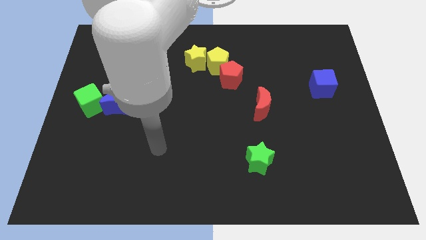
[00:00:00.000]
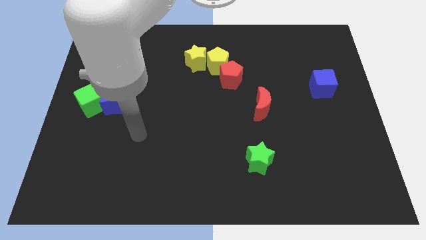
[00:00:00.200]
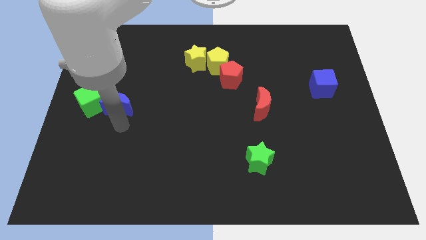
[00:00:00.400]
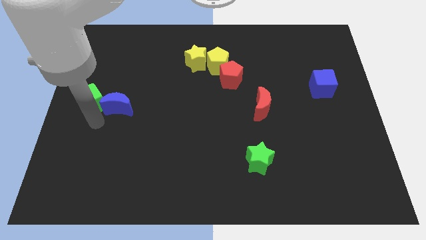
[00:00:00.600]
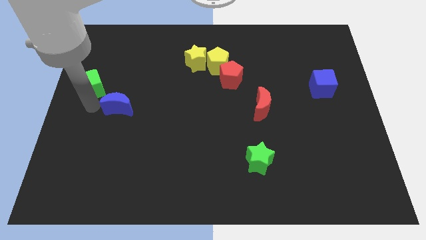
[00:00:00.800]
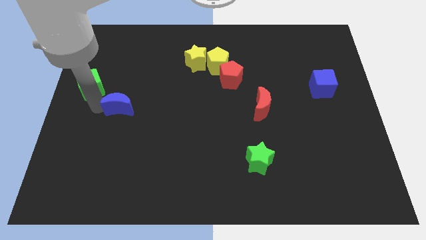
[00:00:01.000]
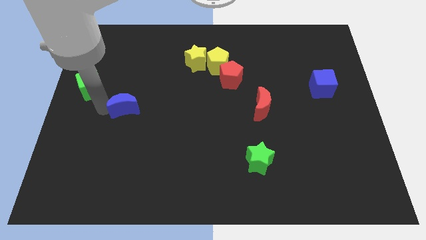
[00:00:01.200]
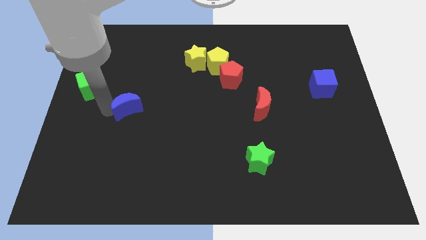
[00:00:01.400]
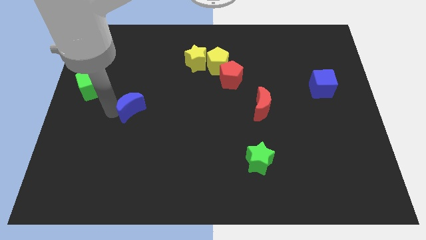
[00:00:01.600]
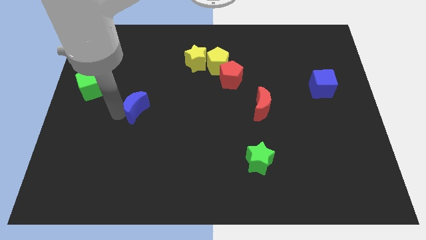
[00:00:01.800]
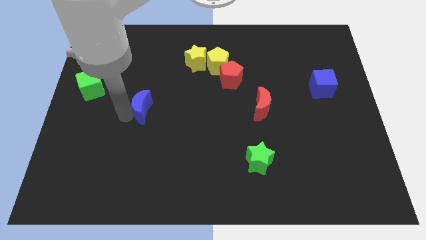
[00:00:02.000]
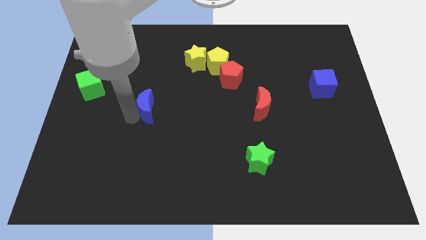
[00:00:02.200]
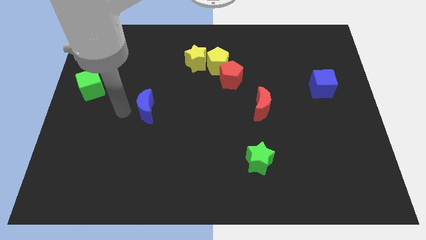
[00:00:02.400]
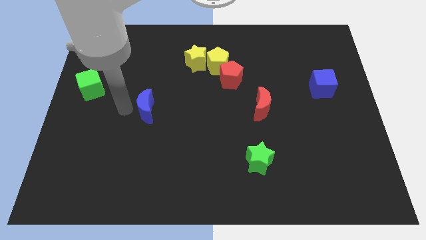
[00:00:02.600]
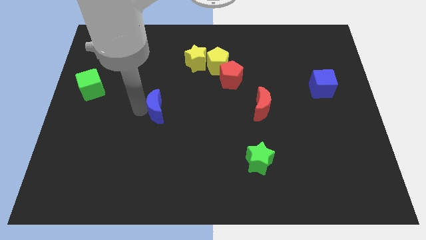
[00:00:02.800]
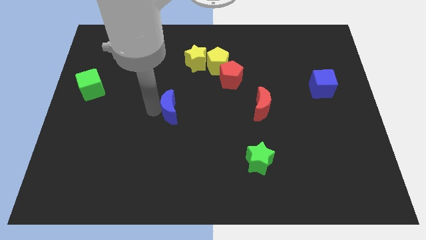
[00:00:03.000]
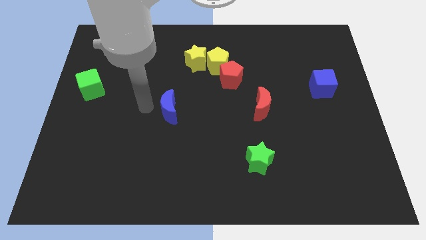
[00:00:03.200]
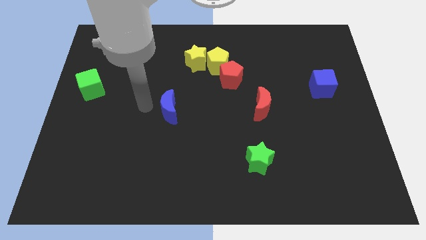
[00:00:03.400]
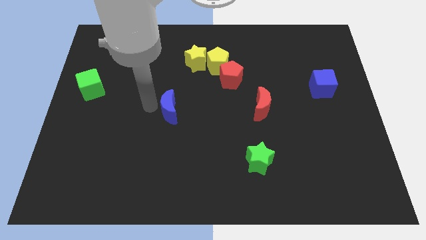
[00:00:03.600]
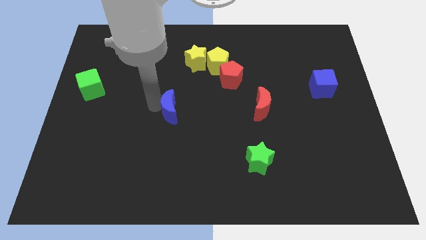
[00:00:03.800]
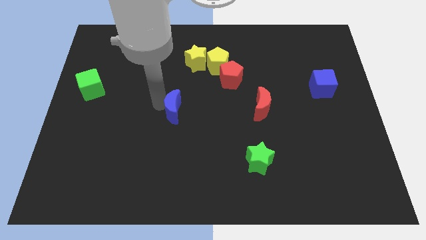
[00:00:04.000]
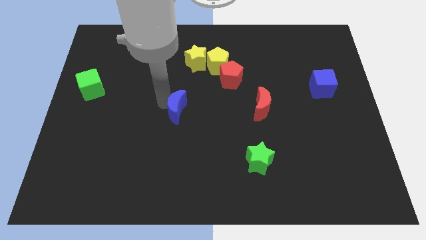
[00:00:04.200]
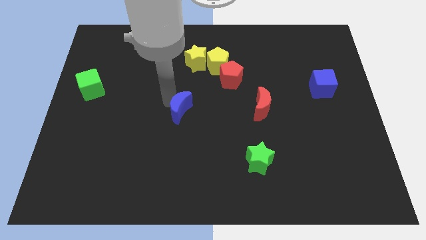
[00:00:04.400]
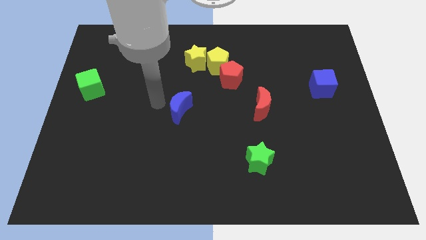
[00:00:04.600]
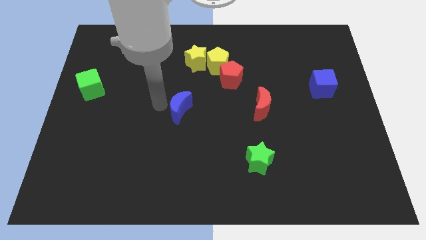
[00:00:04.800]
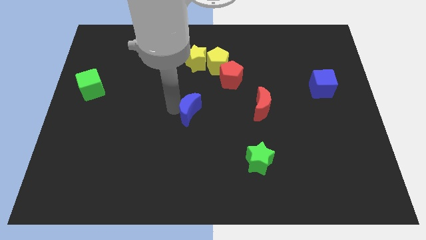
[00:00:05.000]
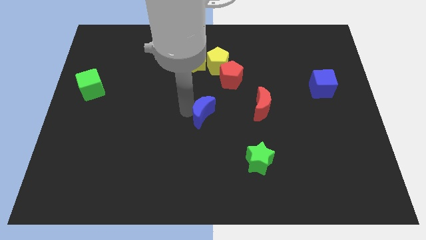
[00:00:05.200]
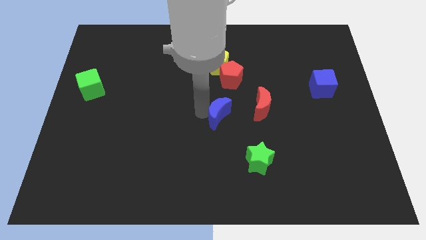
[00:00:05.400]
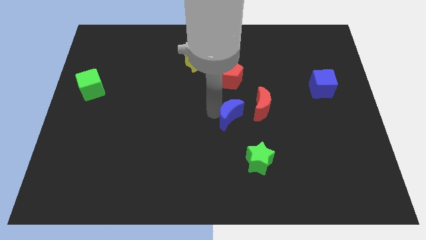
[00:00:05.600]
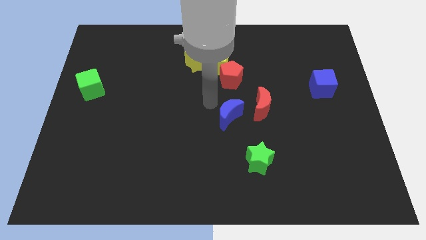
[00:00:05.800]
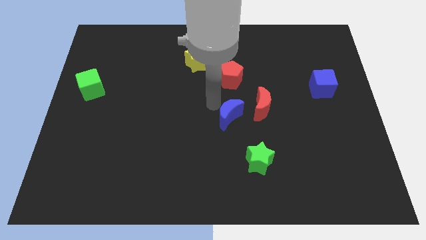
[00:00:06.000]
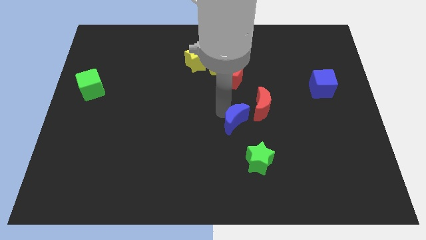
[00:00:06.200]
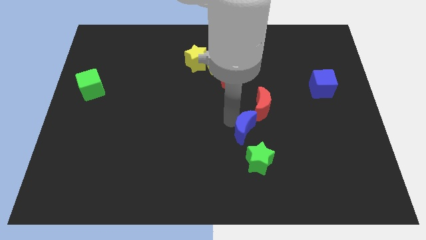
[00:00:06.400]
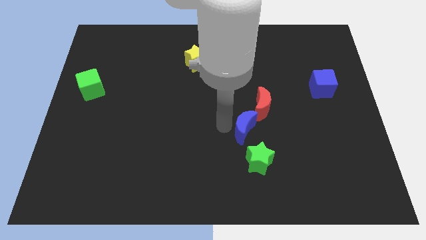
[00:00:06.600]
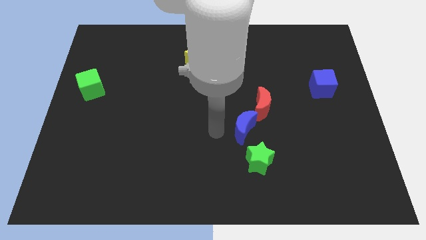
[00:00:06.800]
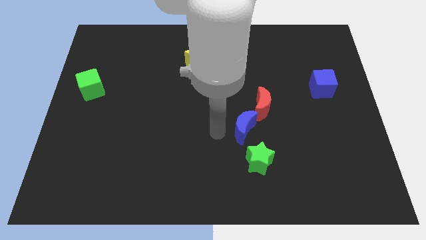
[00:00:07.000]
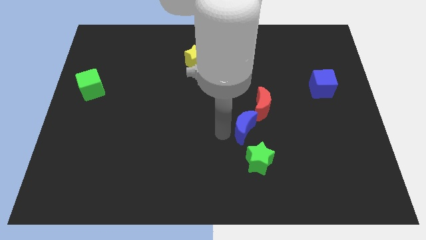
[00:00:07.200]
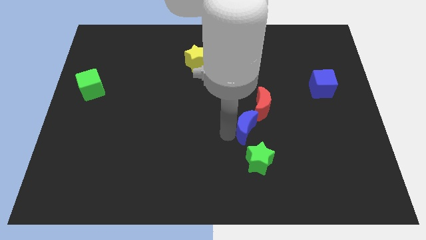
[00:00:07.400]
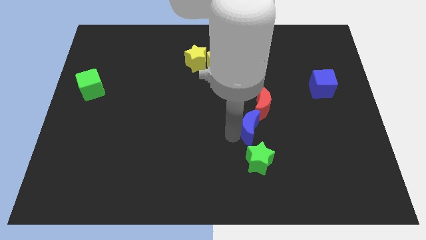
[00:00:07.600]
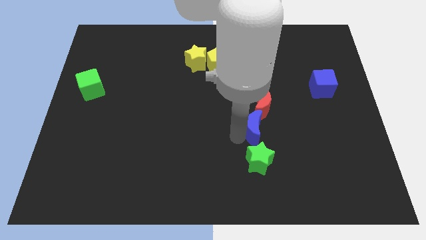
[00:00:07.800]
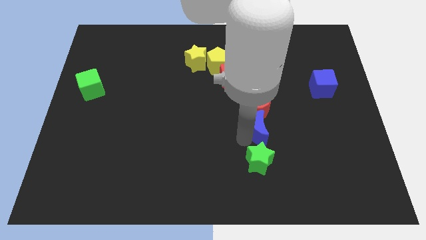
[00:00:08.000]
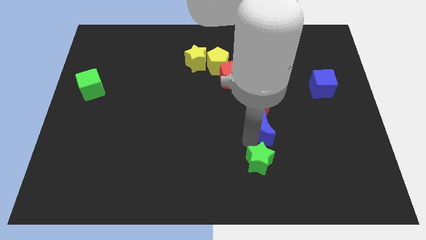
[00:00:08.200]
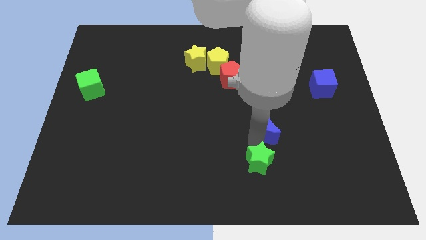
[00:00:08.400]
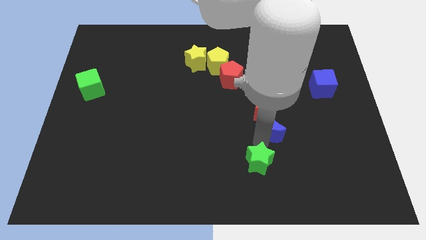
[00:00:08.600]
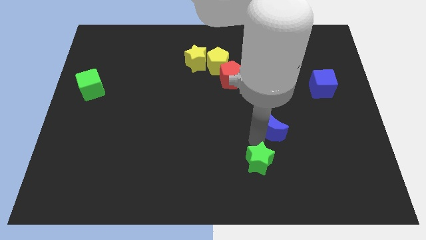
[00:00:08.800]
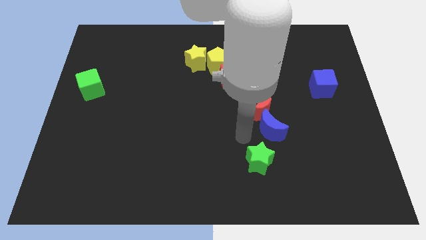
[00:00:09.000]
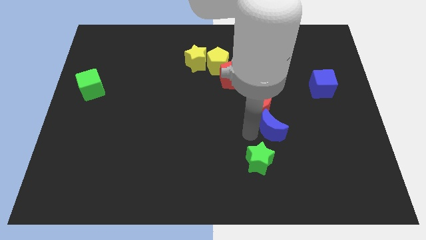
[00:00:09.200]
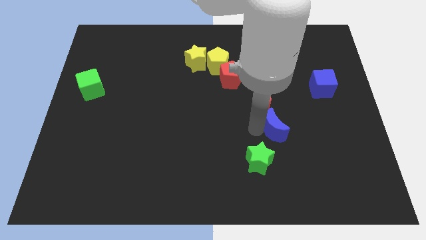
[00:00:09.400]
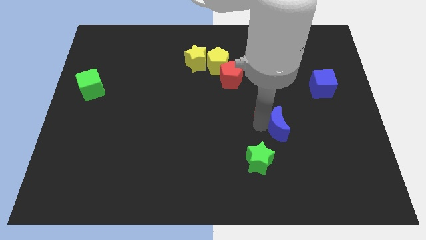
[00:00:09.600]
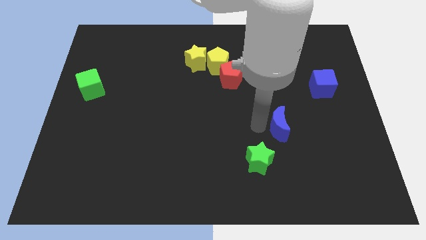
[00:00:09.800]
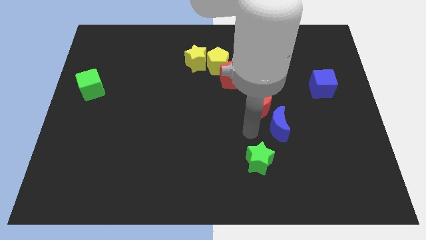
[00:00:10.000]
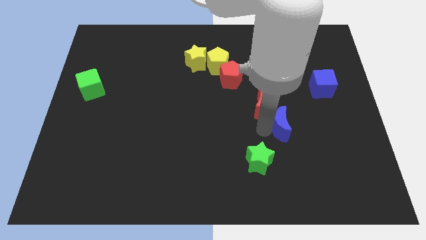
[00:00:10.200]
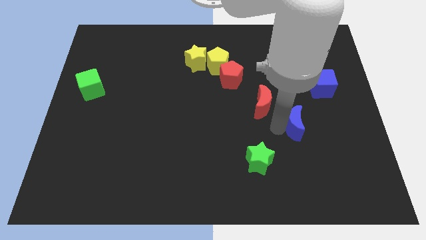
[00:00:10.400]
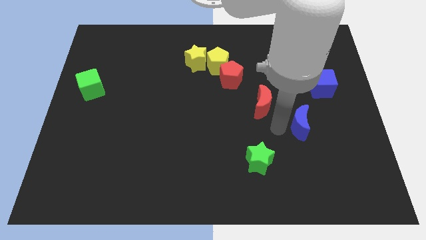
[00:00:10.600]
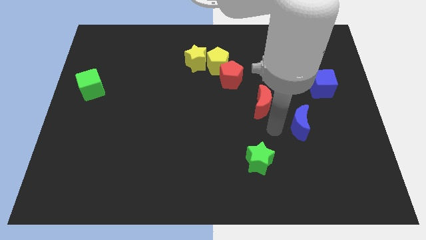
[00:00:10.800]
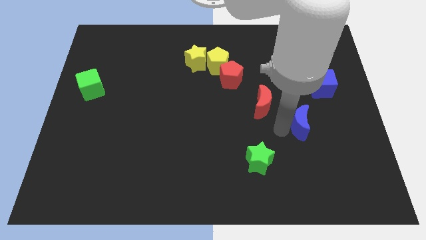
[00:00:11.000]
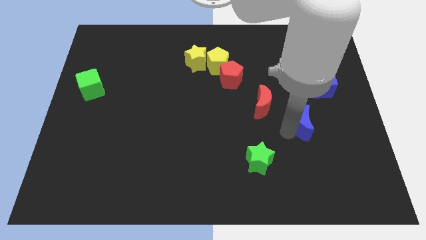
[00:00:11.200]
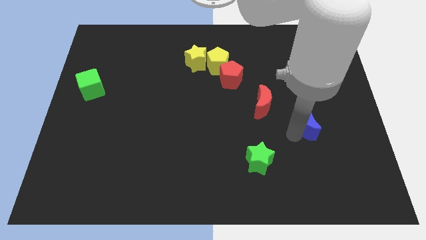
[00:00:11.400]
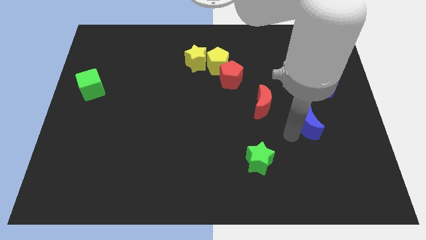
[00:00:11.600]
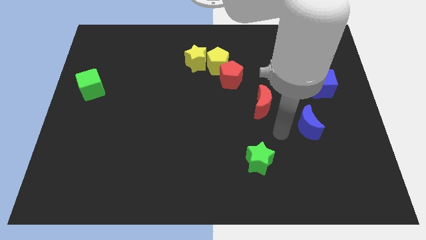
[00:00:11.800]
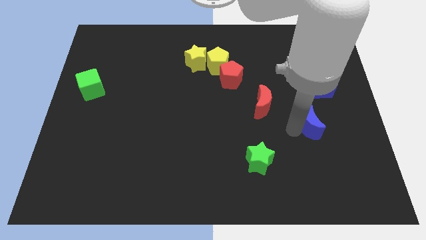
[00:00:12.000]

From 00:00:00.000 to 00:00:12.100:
push the blue moon below the blue cube

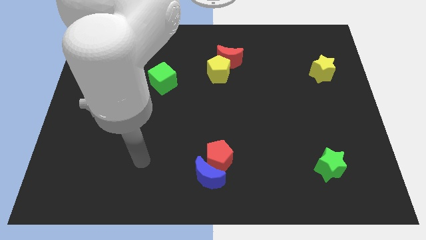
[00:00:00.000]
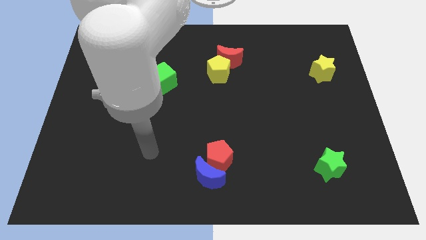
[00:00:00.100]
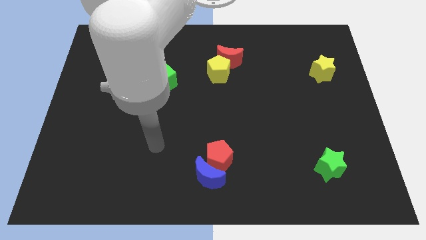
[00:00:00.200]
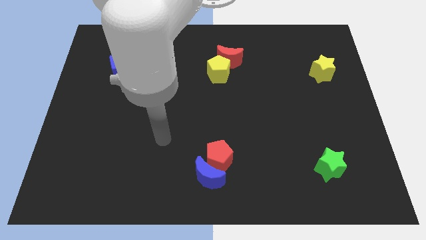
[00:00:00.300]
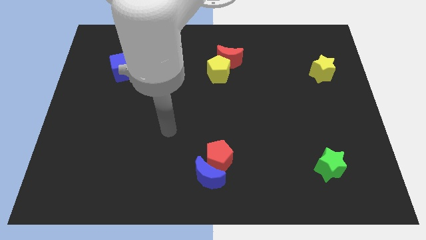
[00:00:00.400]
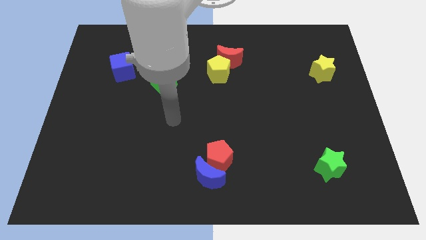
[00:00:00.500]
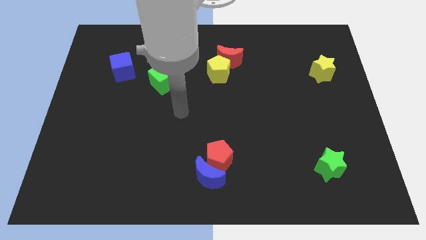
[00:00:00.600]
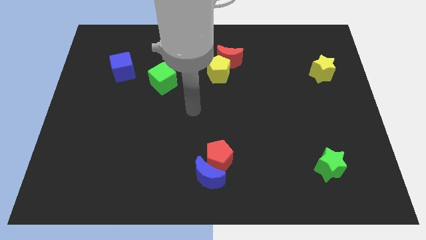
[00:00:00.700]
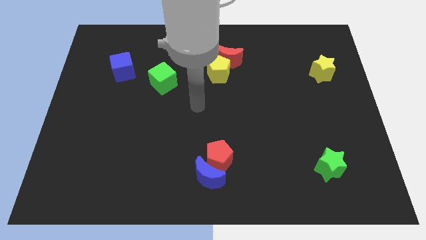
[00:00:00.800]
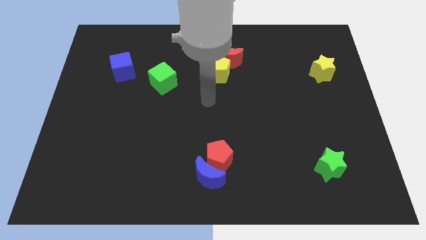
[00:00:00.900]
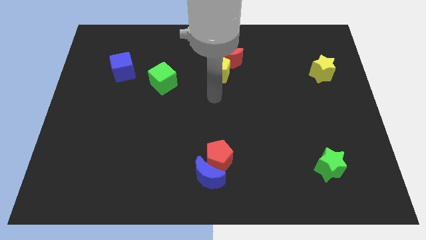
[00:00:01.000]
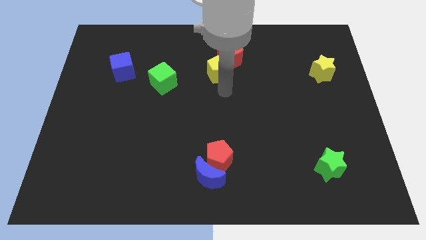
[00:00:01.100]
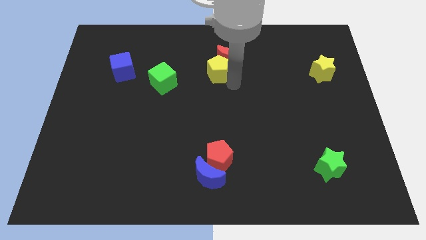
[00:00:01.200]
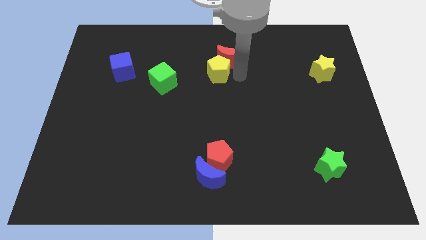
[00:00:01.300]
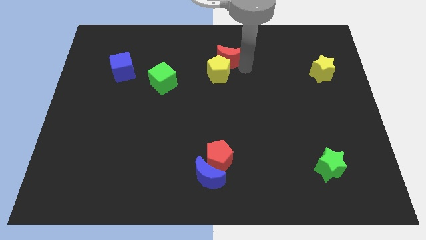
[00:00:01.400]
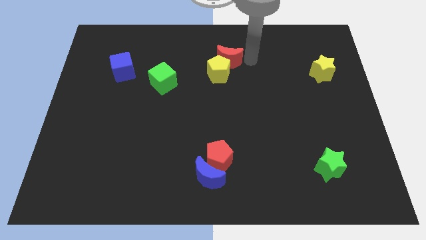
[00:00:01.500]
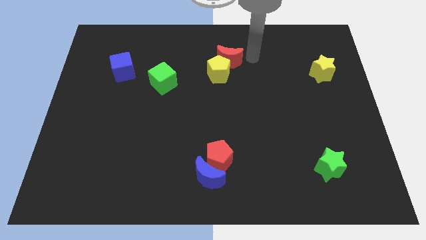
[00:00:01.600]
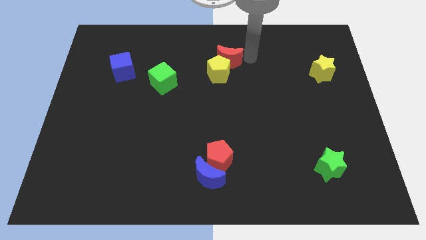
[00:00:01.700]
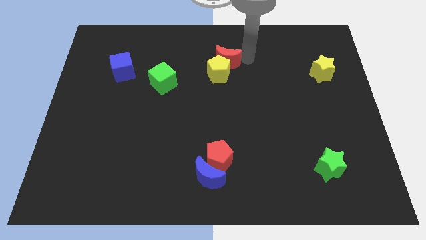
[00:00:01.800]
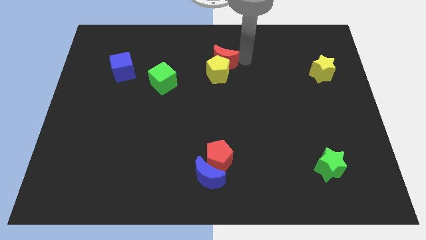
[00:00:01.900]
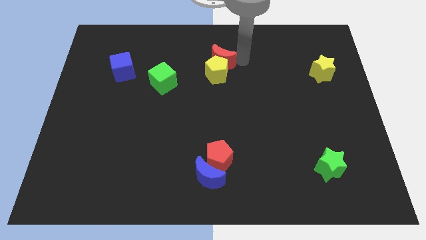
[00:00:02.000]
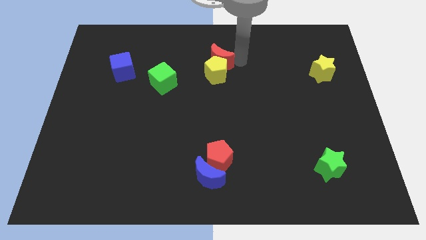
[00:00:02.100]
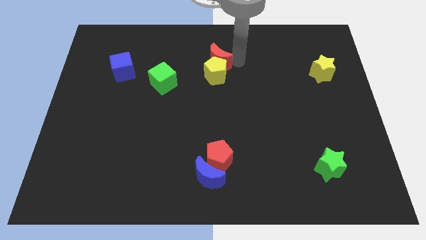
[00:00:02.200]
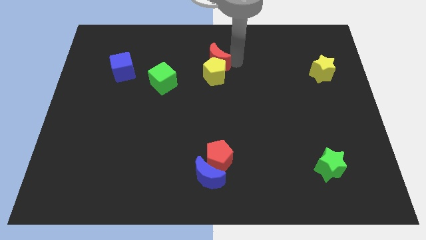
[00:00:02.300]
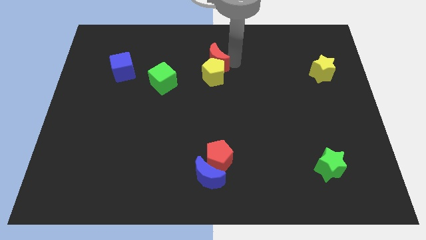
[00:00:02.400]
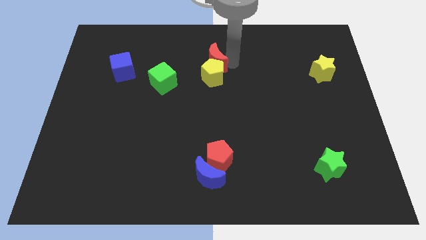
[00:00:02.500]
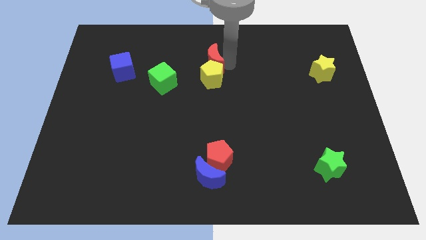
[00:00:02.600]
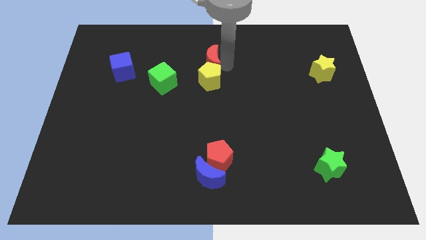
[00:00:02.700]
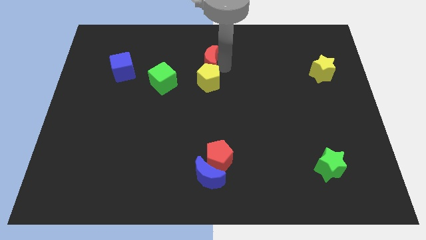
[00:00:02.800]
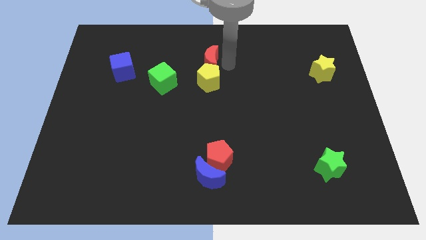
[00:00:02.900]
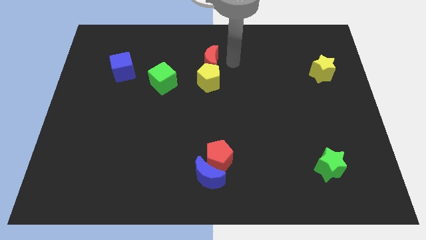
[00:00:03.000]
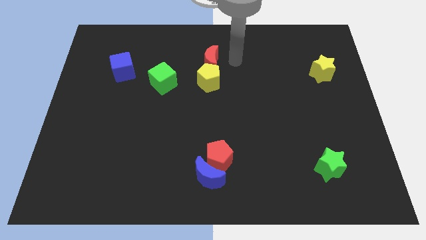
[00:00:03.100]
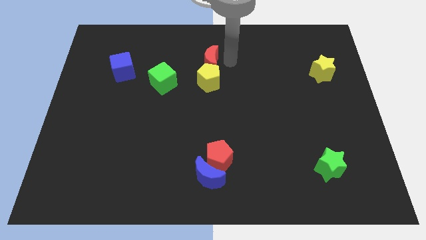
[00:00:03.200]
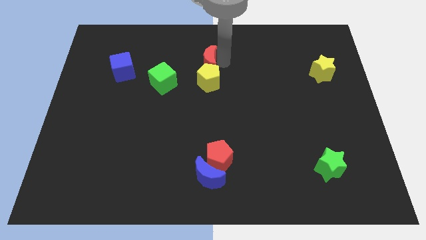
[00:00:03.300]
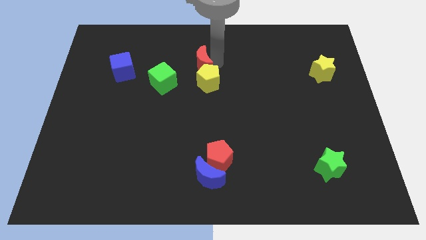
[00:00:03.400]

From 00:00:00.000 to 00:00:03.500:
push the red moon to the top right of the green cube
